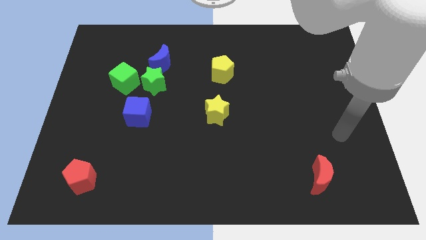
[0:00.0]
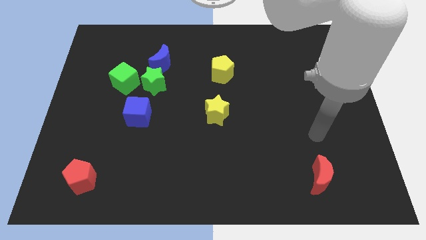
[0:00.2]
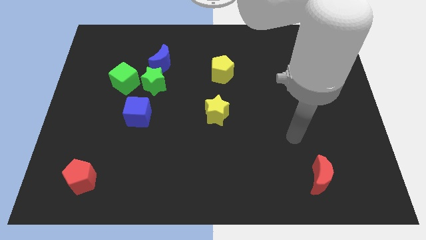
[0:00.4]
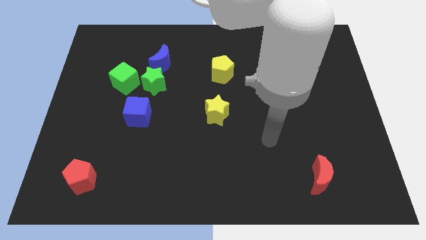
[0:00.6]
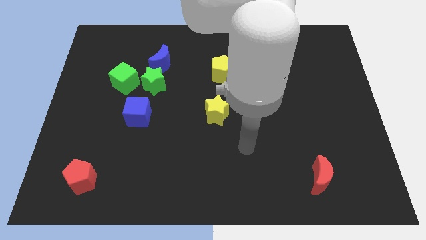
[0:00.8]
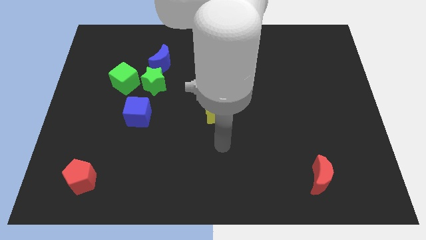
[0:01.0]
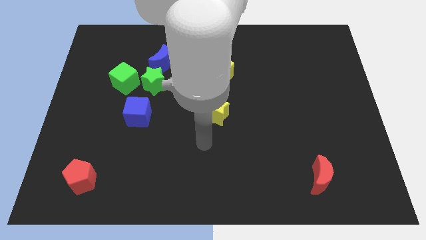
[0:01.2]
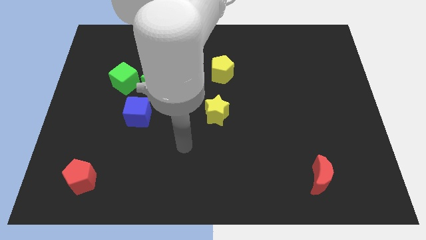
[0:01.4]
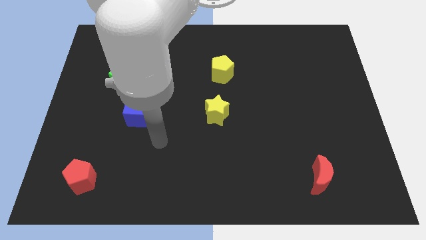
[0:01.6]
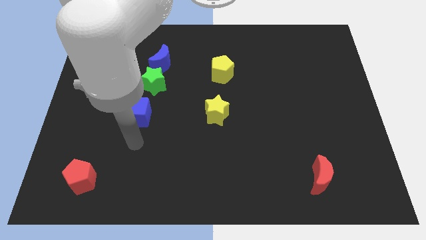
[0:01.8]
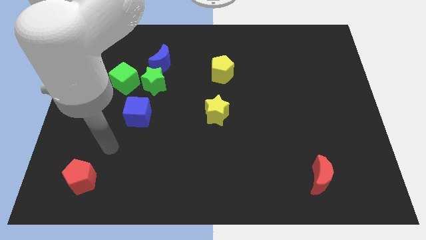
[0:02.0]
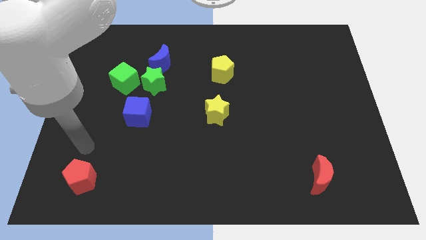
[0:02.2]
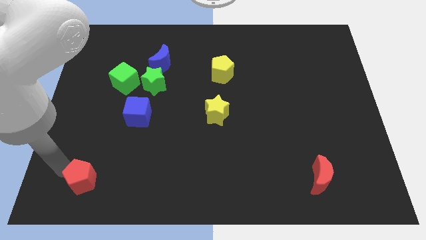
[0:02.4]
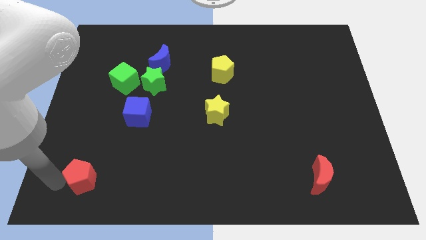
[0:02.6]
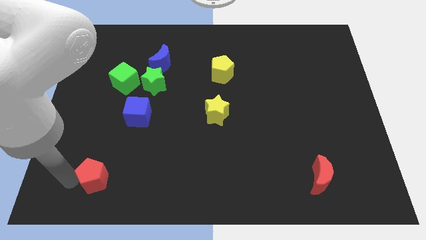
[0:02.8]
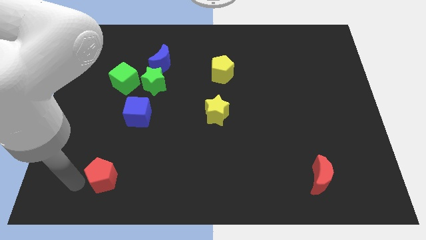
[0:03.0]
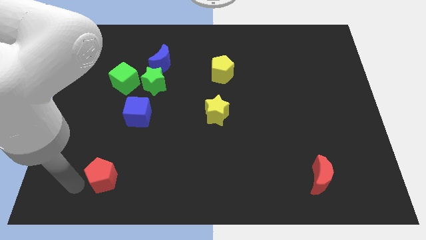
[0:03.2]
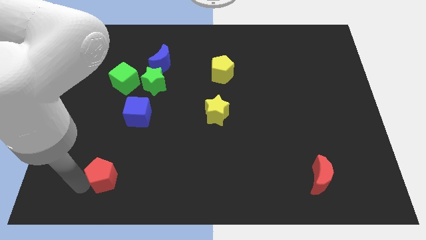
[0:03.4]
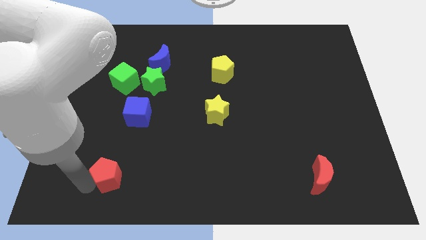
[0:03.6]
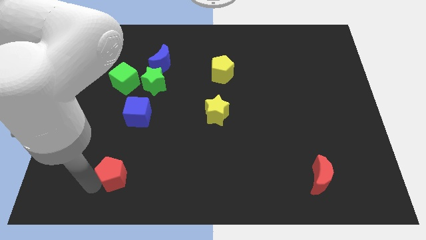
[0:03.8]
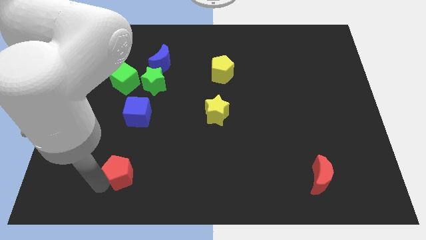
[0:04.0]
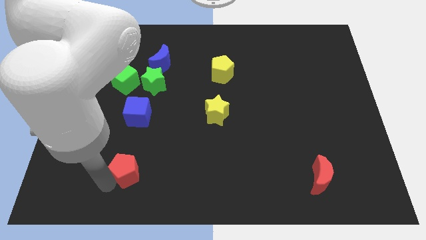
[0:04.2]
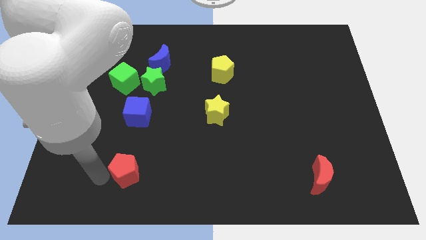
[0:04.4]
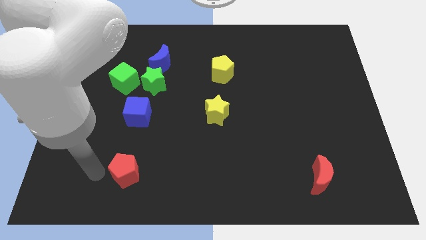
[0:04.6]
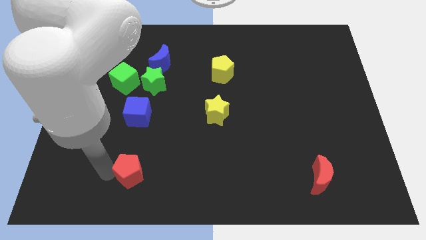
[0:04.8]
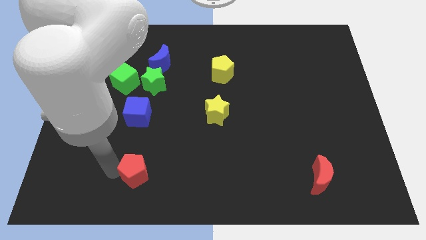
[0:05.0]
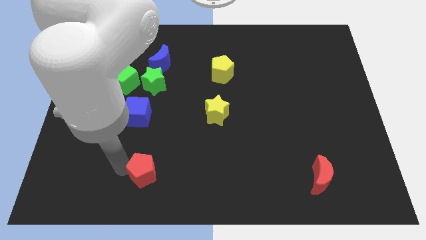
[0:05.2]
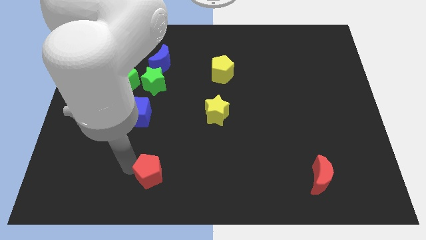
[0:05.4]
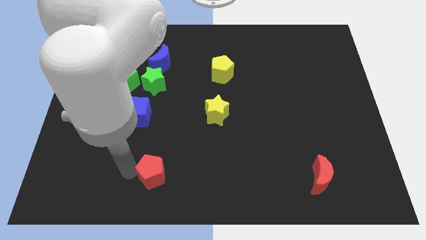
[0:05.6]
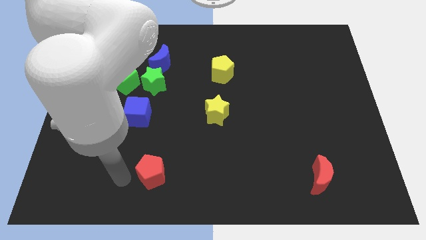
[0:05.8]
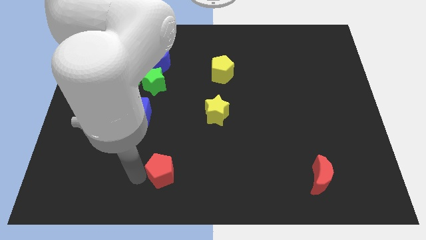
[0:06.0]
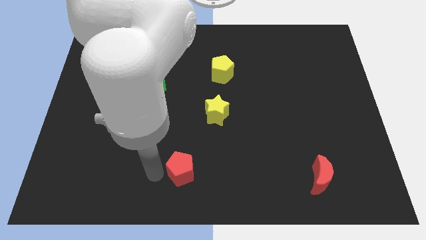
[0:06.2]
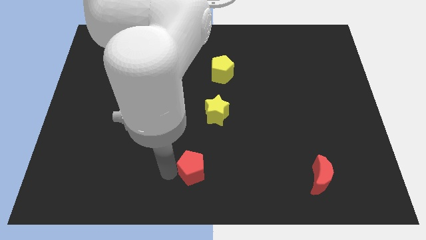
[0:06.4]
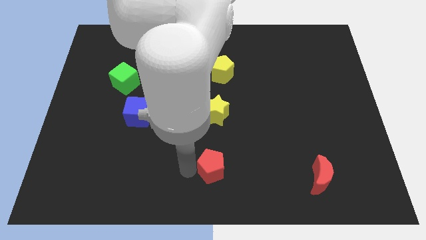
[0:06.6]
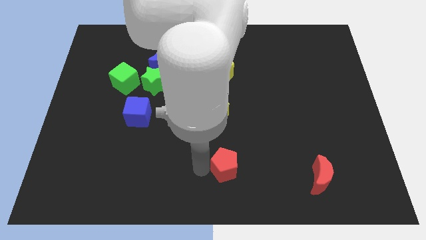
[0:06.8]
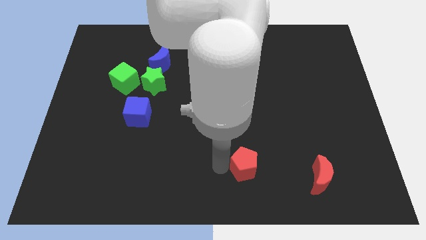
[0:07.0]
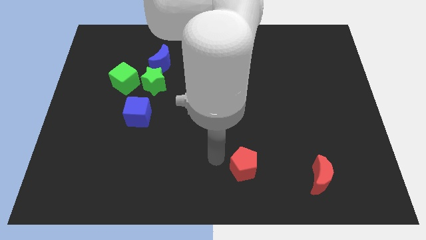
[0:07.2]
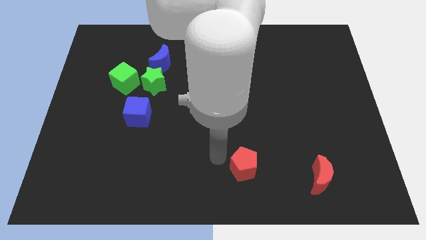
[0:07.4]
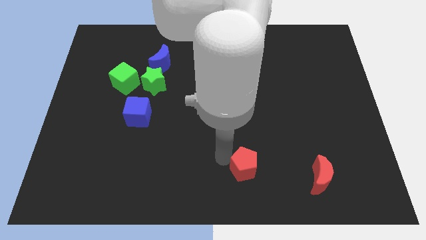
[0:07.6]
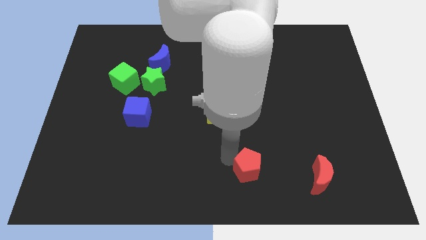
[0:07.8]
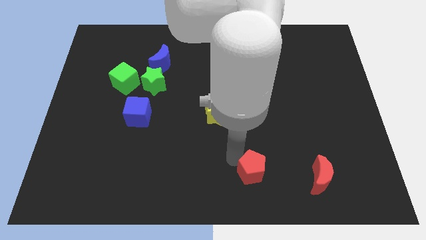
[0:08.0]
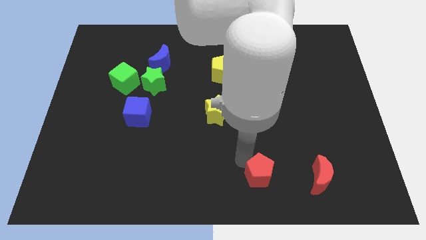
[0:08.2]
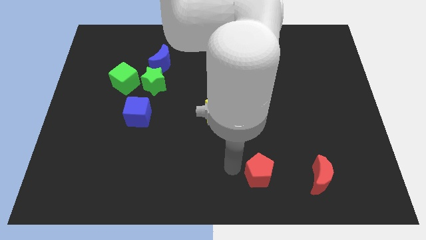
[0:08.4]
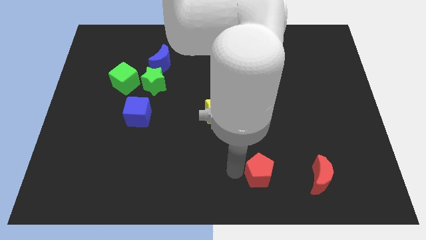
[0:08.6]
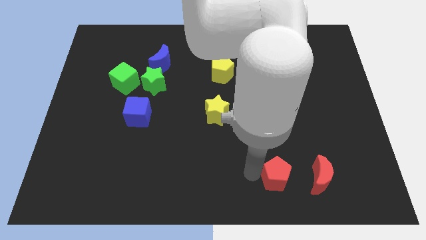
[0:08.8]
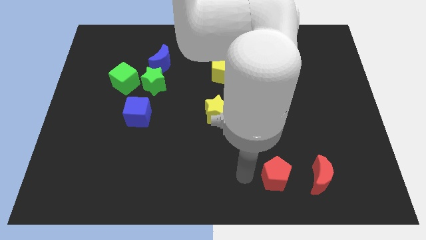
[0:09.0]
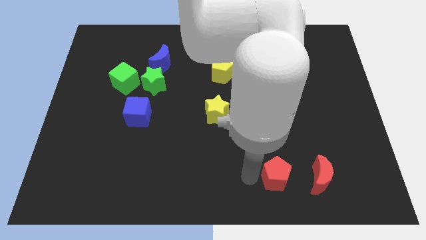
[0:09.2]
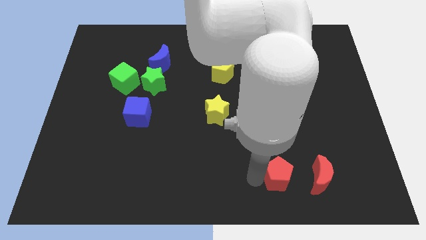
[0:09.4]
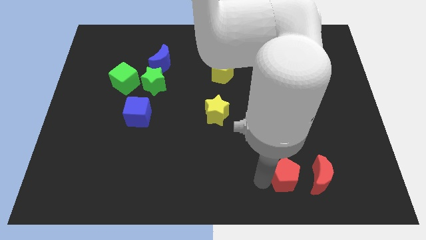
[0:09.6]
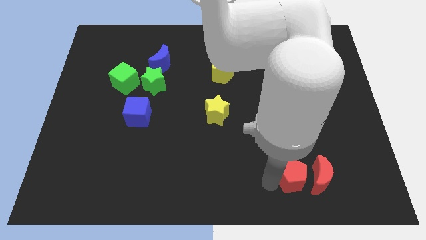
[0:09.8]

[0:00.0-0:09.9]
slide the red pentagon to the red moon

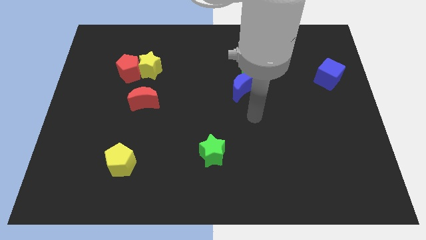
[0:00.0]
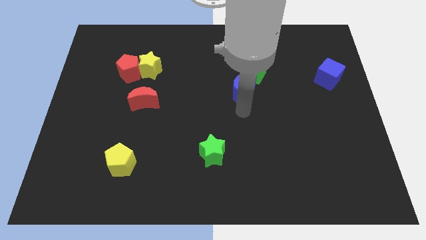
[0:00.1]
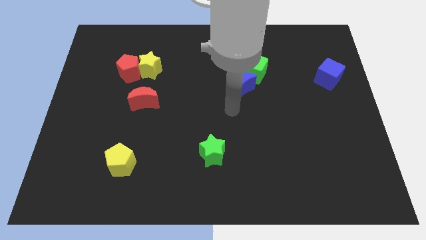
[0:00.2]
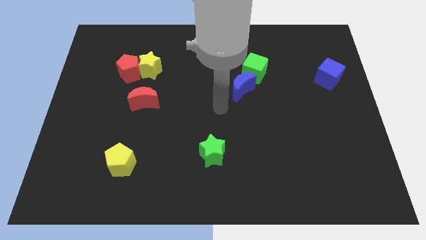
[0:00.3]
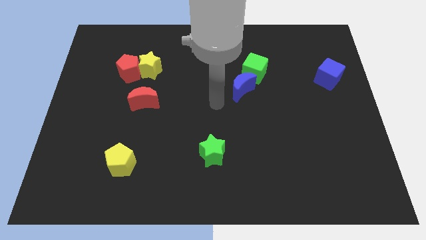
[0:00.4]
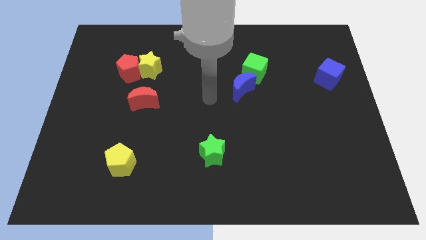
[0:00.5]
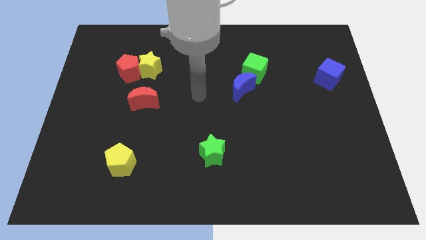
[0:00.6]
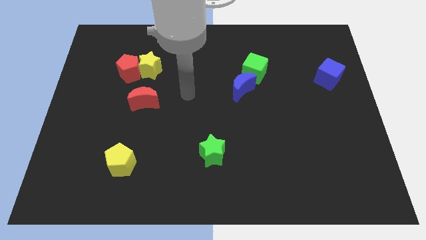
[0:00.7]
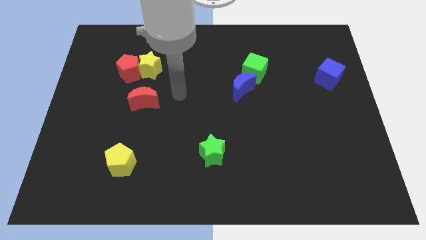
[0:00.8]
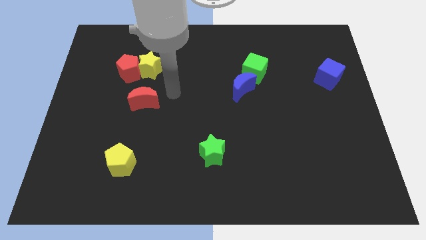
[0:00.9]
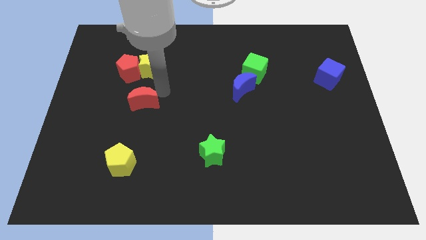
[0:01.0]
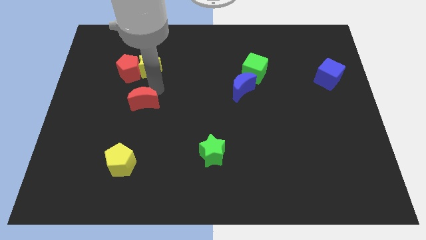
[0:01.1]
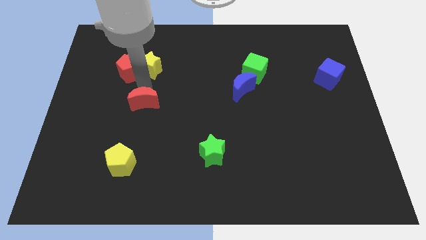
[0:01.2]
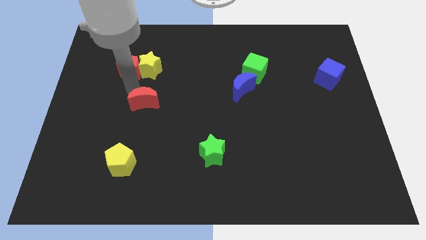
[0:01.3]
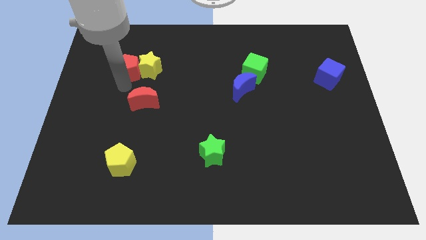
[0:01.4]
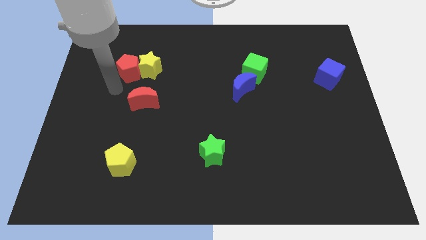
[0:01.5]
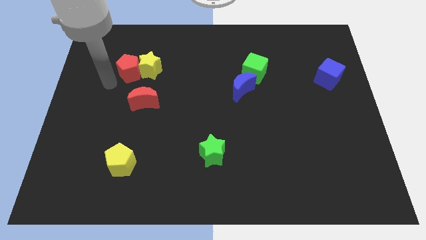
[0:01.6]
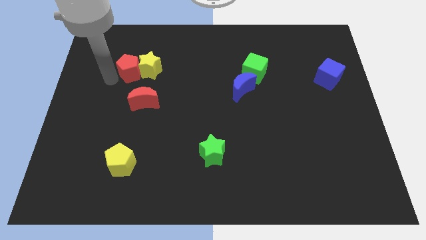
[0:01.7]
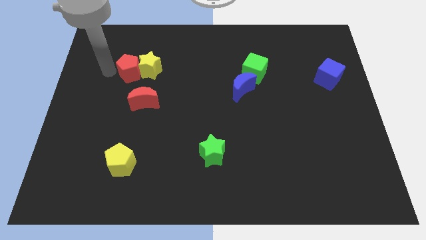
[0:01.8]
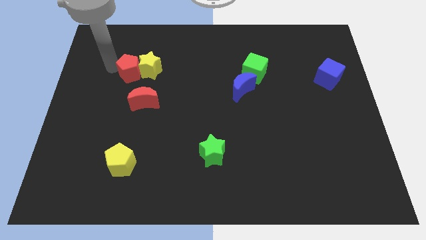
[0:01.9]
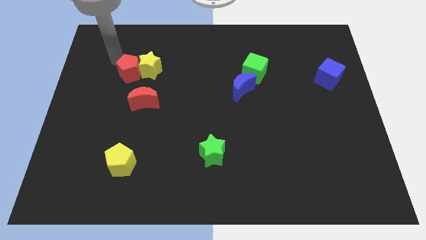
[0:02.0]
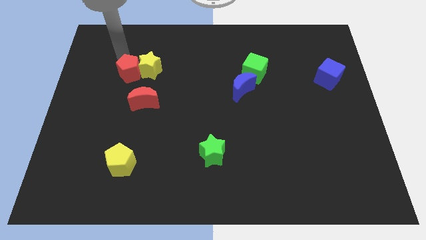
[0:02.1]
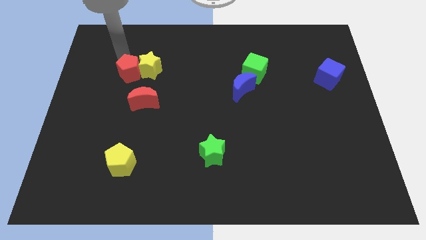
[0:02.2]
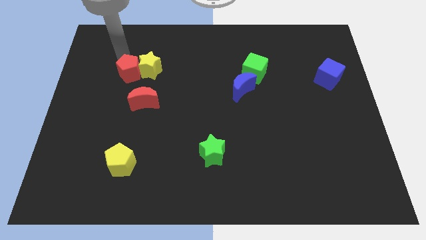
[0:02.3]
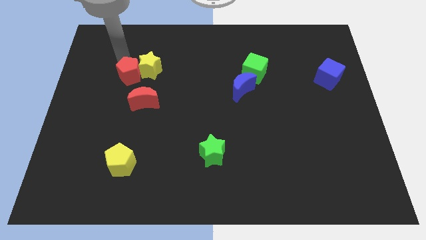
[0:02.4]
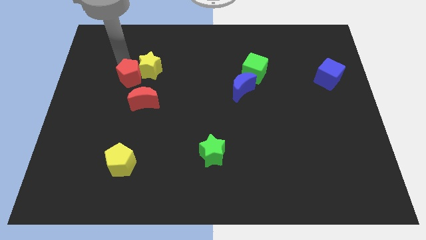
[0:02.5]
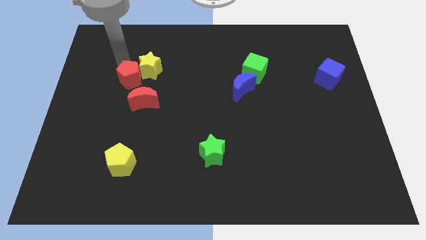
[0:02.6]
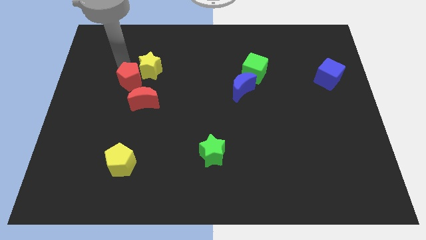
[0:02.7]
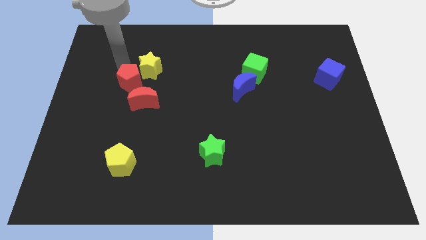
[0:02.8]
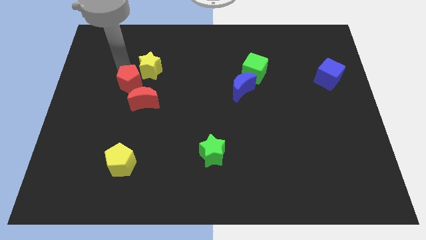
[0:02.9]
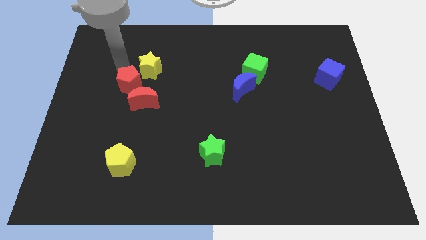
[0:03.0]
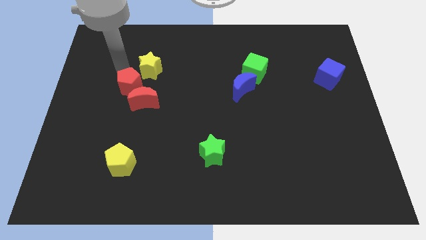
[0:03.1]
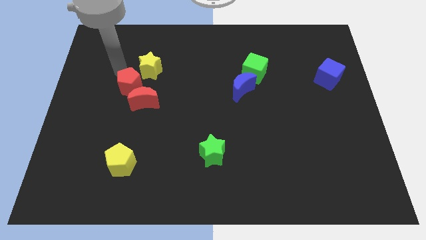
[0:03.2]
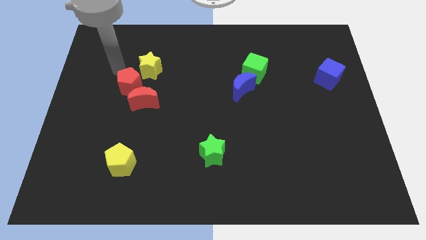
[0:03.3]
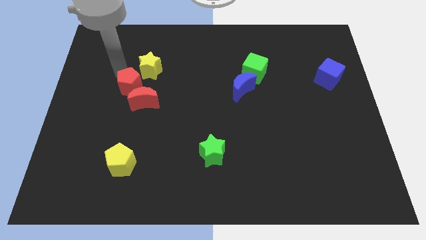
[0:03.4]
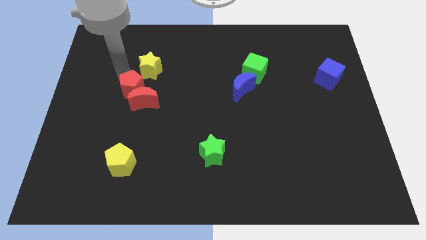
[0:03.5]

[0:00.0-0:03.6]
push the red pentagon to the red moon
